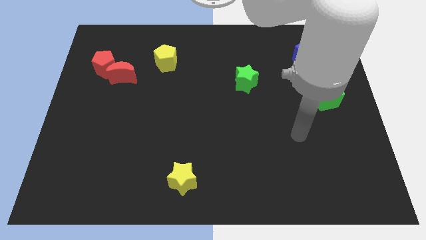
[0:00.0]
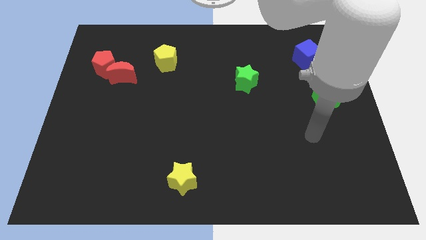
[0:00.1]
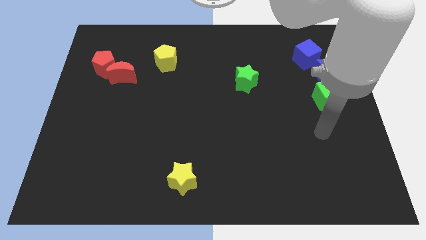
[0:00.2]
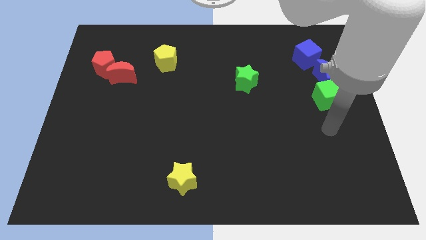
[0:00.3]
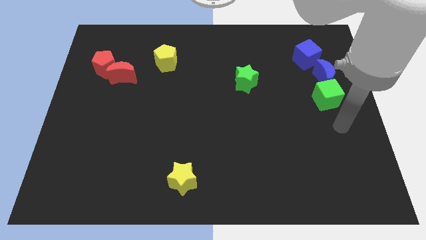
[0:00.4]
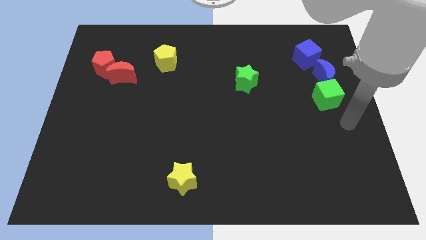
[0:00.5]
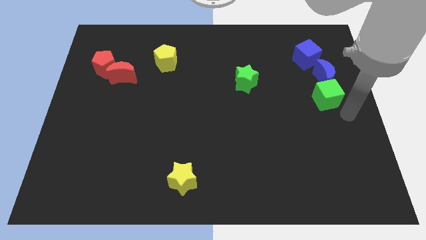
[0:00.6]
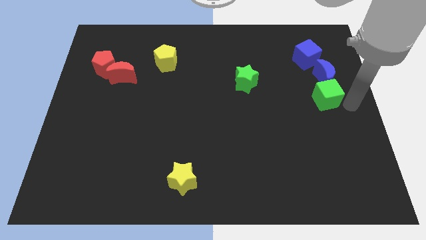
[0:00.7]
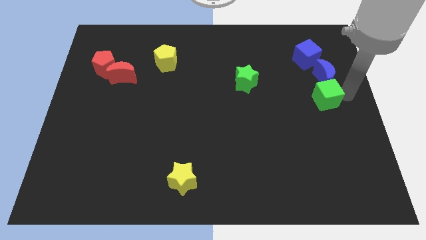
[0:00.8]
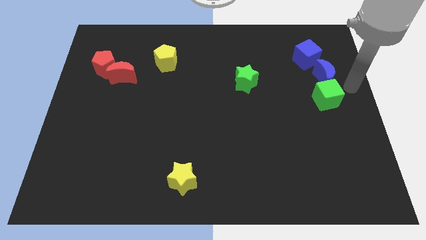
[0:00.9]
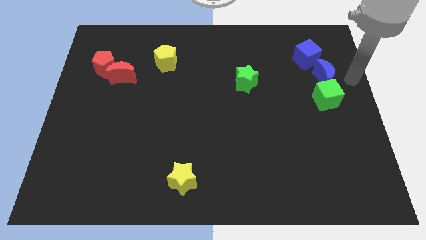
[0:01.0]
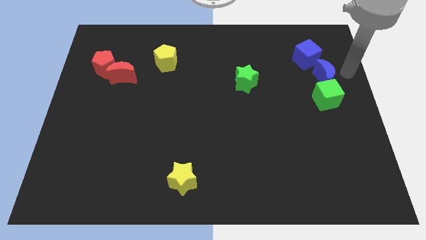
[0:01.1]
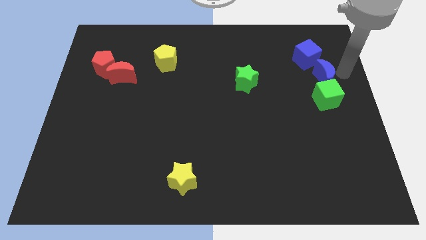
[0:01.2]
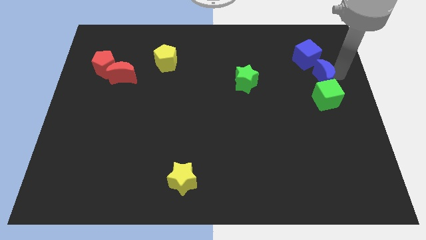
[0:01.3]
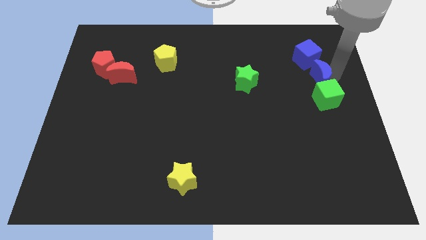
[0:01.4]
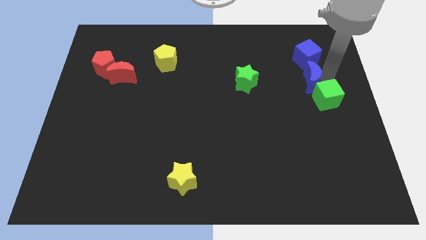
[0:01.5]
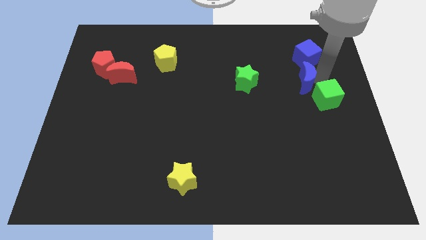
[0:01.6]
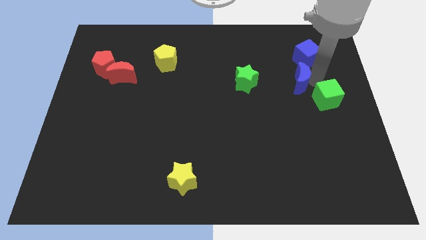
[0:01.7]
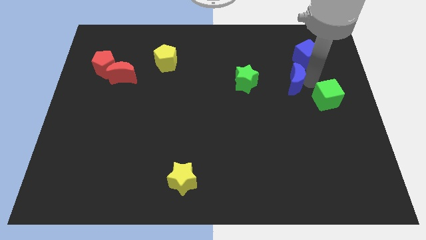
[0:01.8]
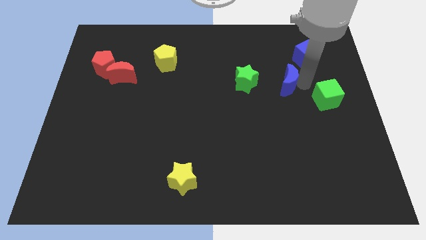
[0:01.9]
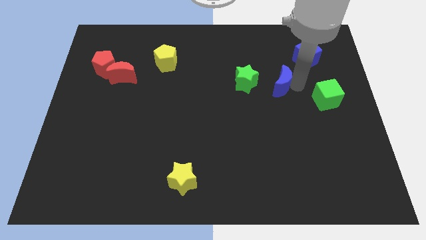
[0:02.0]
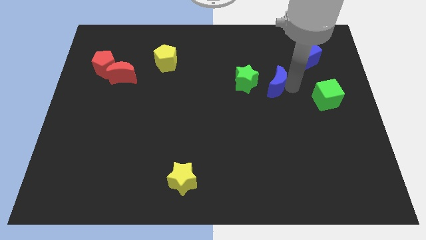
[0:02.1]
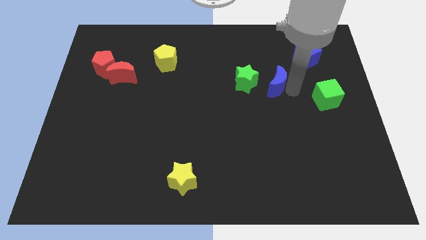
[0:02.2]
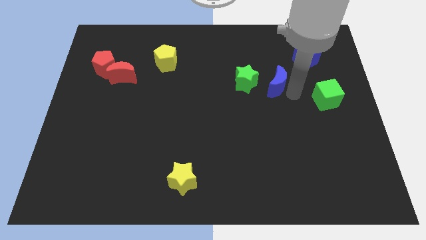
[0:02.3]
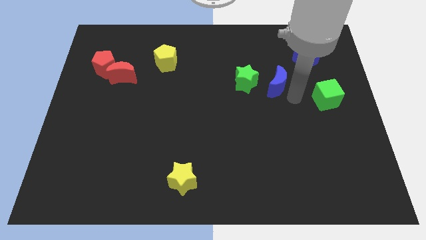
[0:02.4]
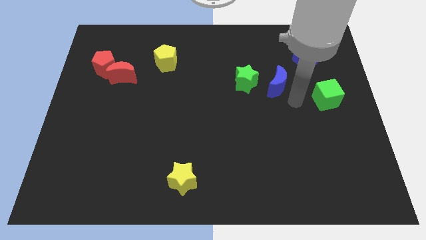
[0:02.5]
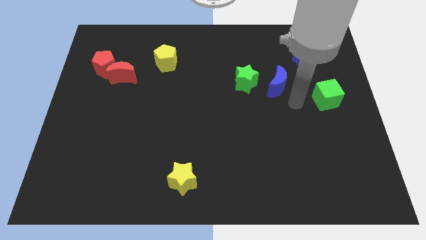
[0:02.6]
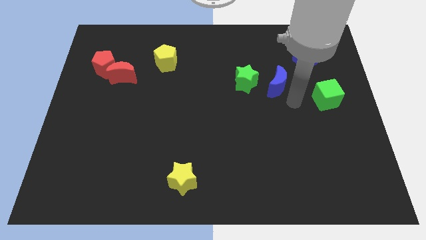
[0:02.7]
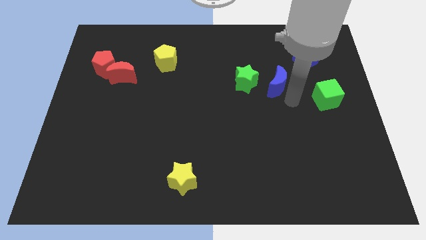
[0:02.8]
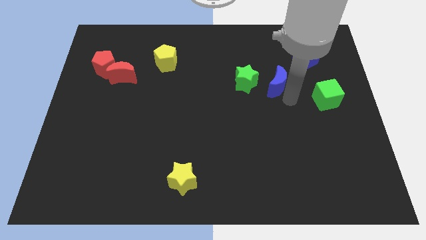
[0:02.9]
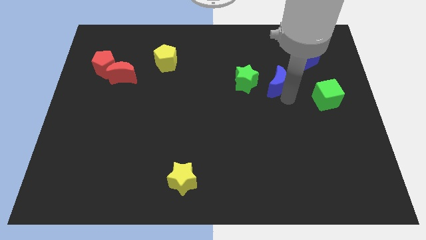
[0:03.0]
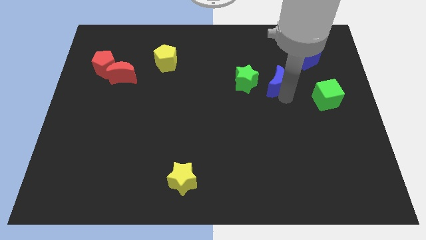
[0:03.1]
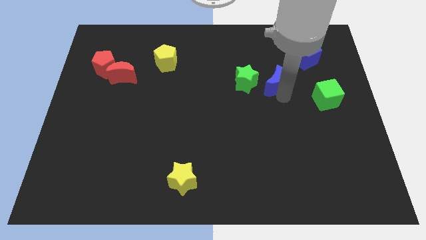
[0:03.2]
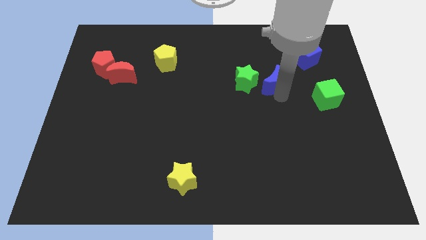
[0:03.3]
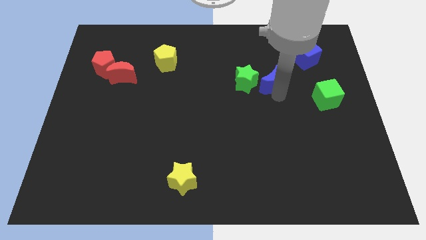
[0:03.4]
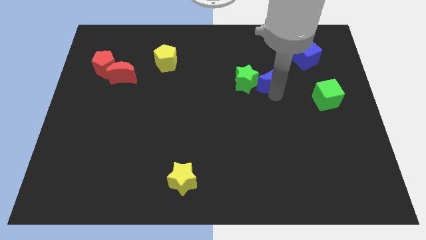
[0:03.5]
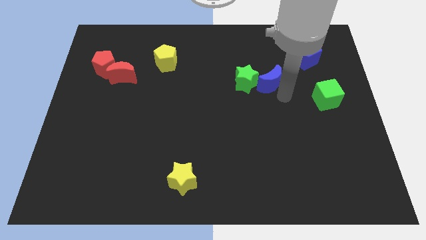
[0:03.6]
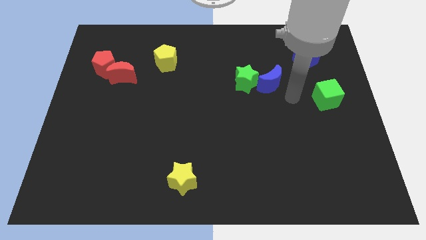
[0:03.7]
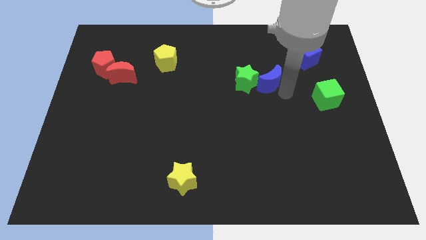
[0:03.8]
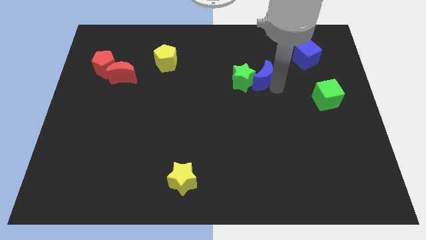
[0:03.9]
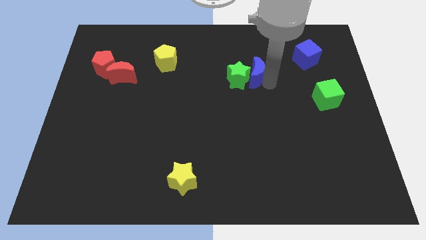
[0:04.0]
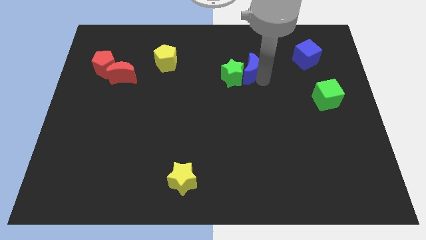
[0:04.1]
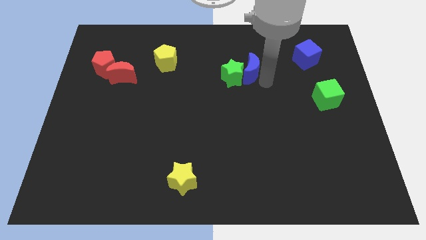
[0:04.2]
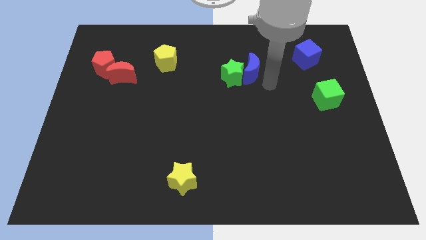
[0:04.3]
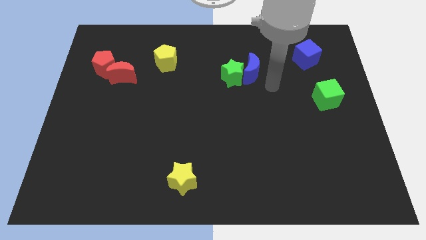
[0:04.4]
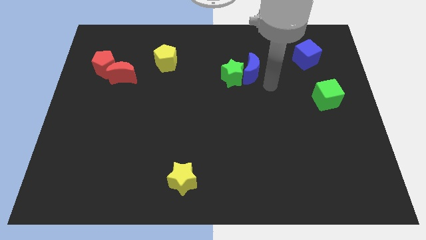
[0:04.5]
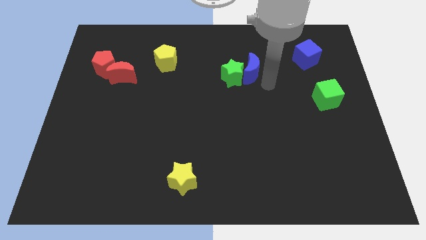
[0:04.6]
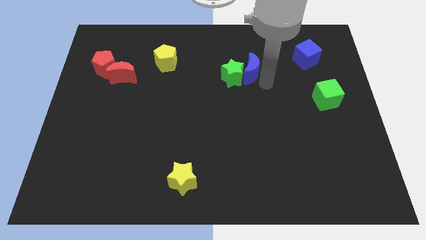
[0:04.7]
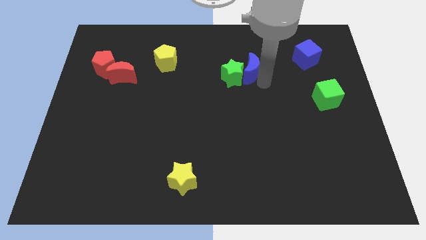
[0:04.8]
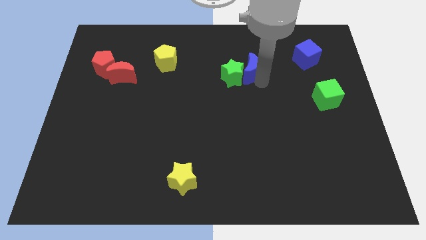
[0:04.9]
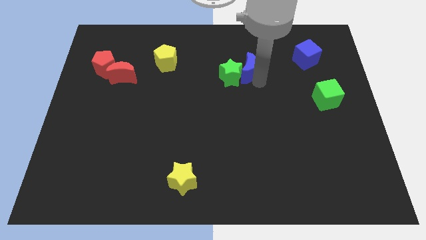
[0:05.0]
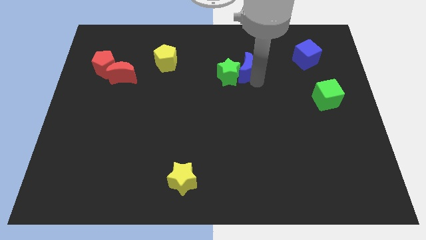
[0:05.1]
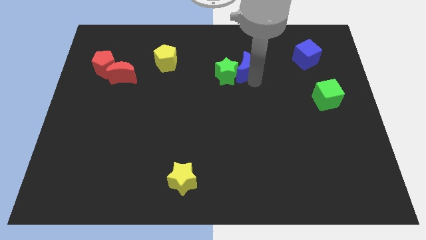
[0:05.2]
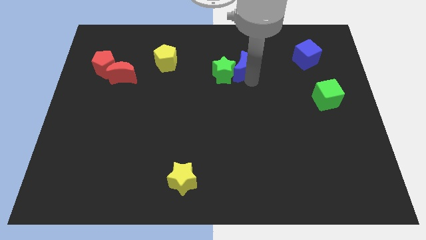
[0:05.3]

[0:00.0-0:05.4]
move the blue moon left

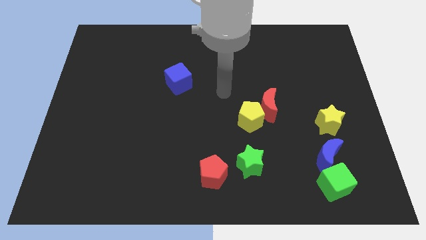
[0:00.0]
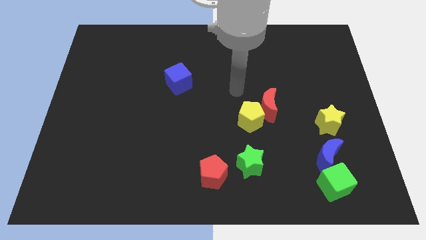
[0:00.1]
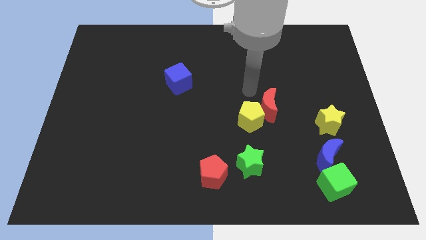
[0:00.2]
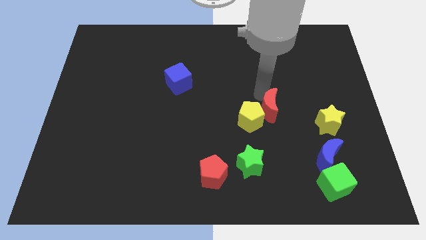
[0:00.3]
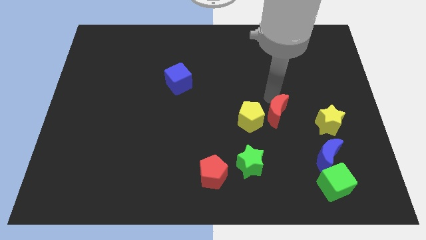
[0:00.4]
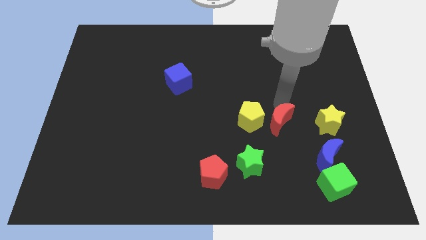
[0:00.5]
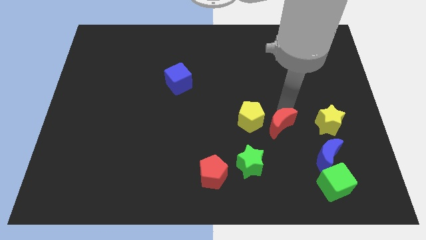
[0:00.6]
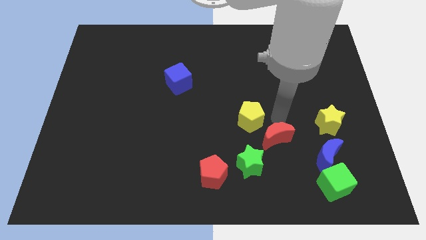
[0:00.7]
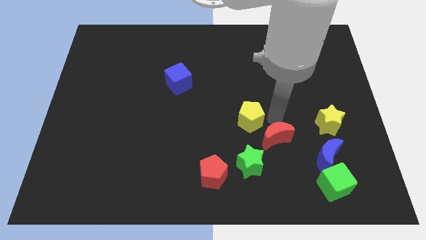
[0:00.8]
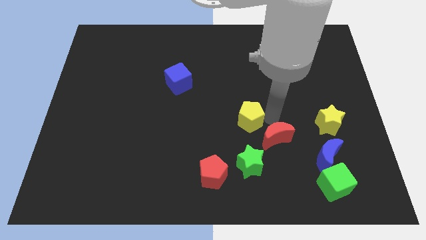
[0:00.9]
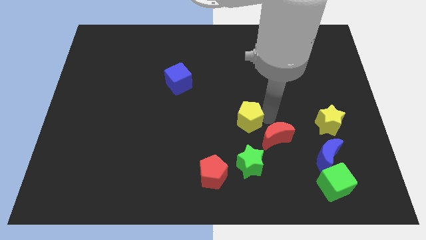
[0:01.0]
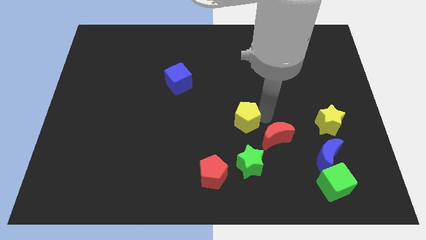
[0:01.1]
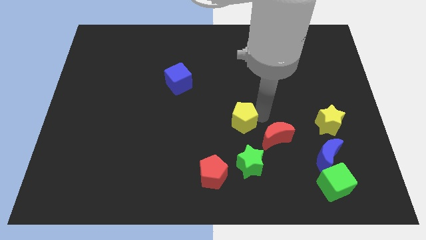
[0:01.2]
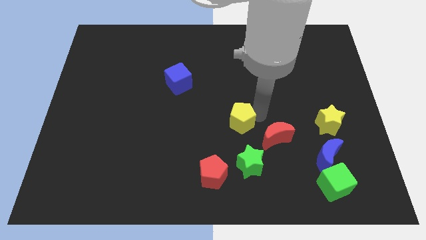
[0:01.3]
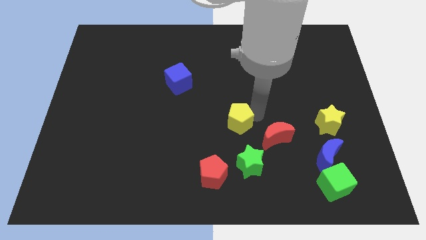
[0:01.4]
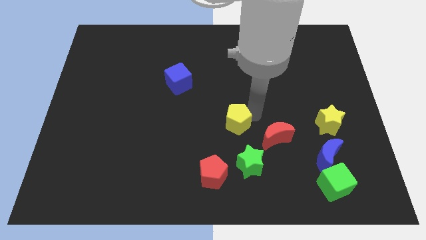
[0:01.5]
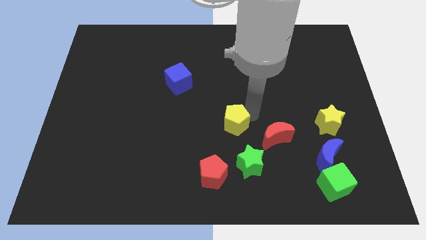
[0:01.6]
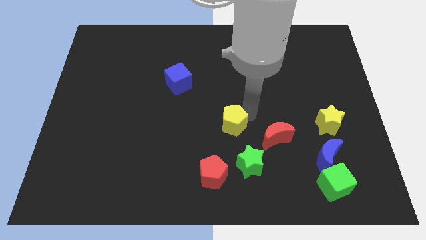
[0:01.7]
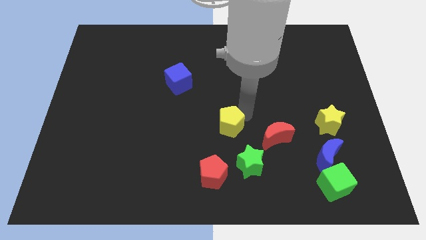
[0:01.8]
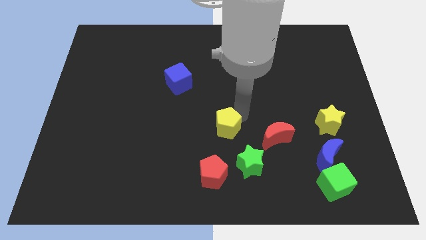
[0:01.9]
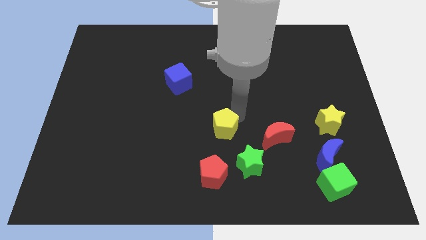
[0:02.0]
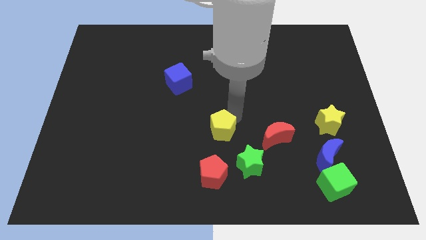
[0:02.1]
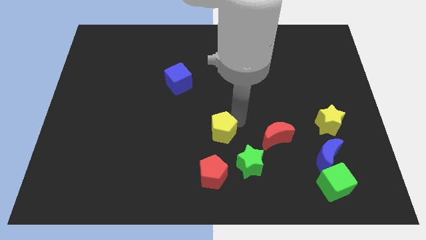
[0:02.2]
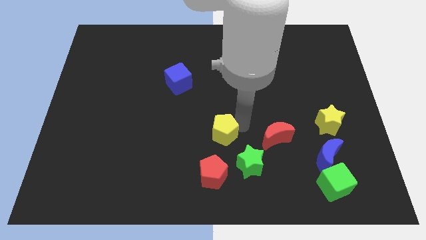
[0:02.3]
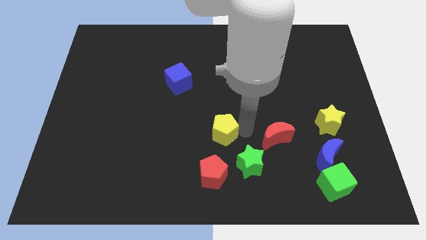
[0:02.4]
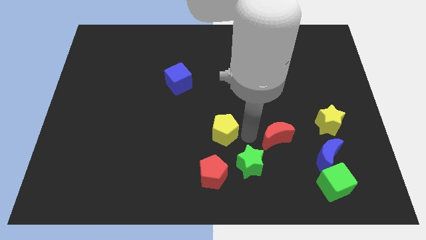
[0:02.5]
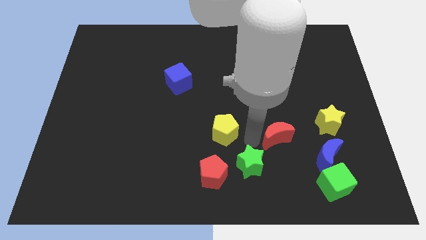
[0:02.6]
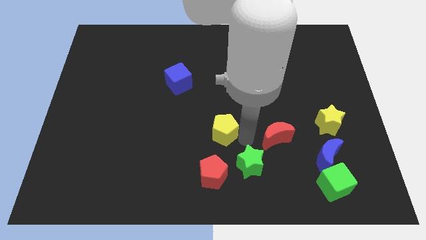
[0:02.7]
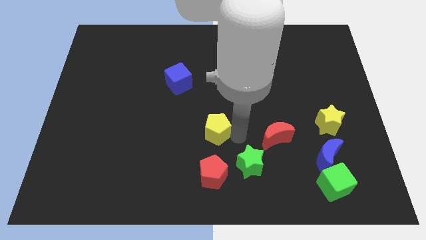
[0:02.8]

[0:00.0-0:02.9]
push the yellow pentagon a little to the left
